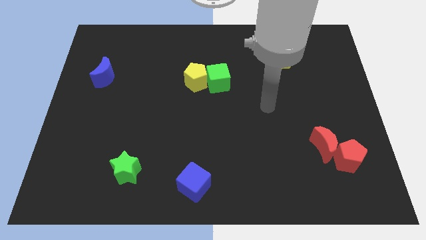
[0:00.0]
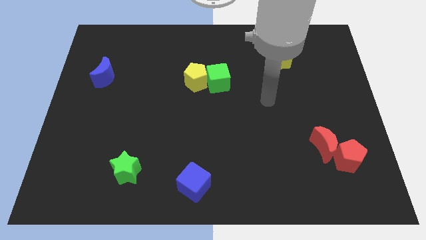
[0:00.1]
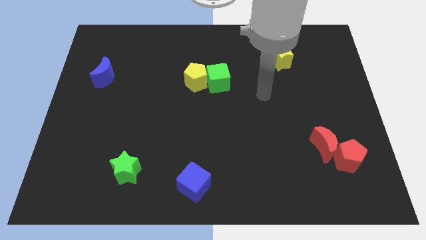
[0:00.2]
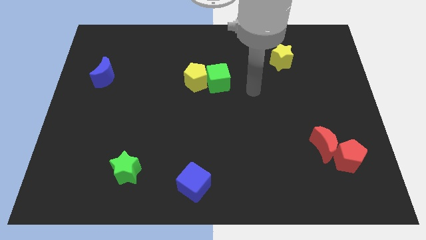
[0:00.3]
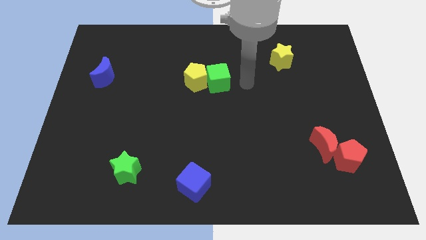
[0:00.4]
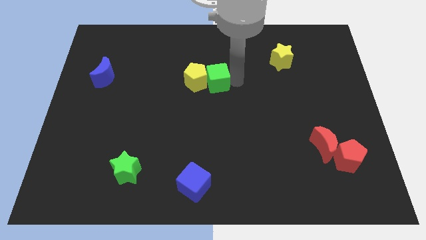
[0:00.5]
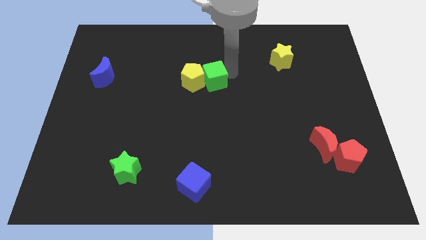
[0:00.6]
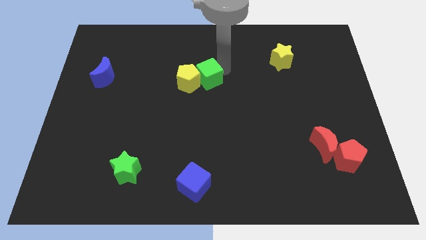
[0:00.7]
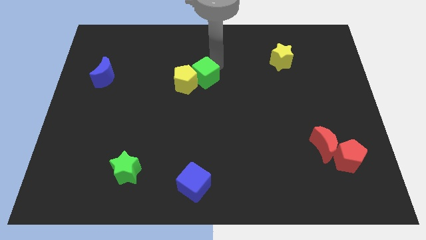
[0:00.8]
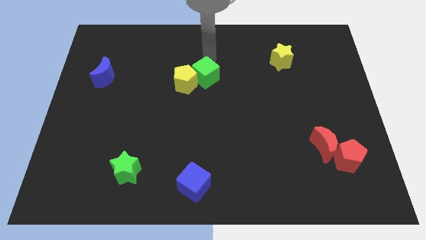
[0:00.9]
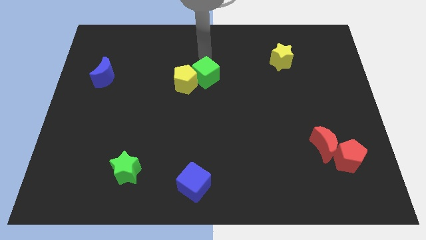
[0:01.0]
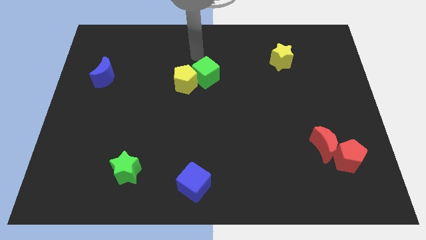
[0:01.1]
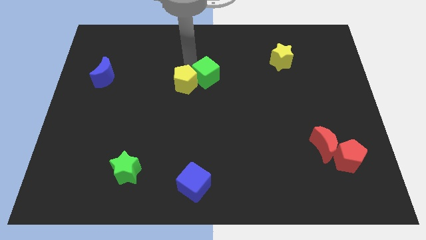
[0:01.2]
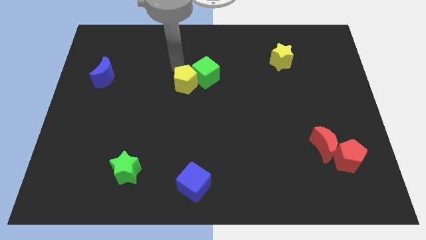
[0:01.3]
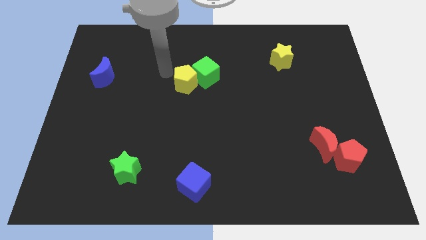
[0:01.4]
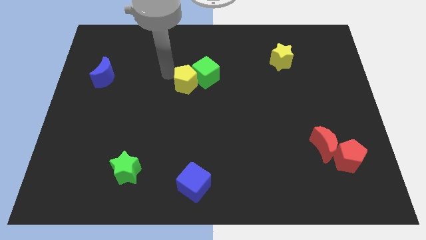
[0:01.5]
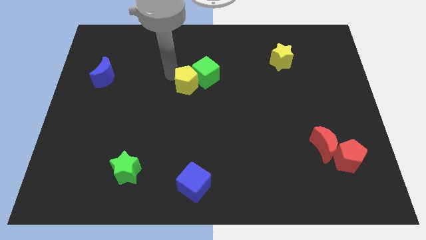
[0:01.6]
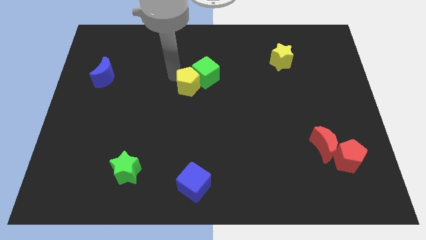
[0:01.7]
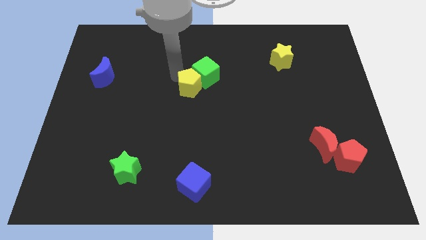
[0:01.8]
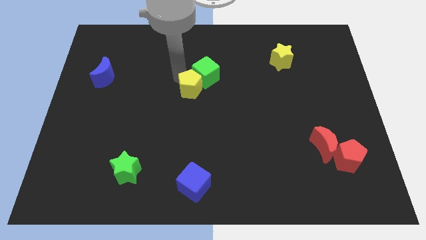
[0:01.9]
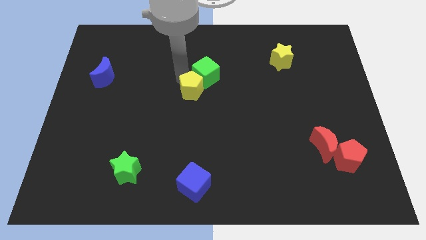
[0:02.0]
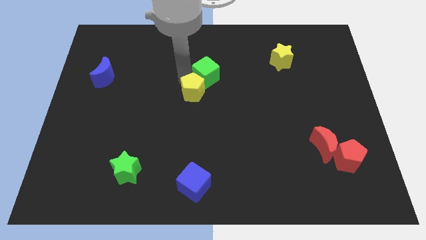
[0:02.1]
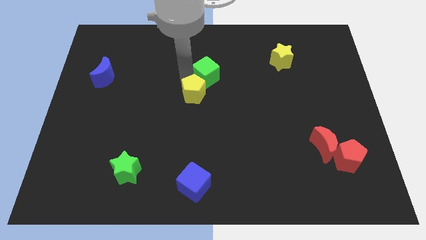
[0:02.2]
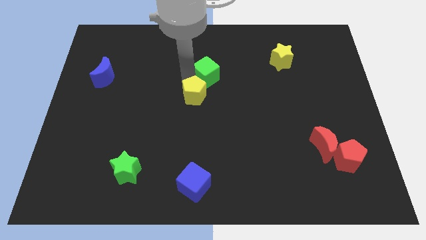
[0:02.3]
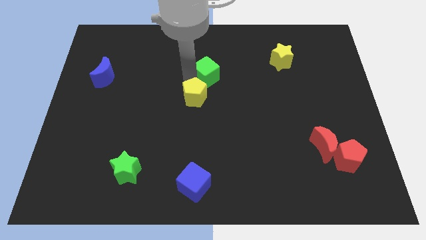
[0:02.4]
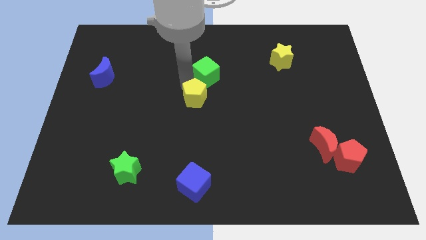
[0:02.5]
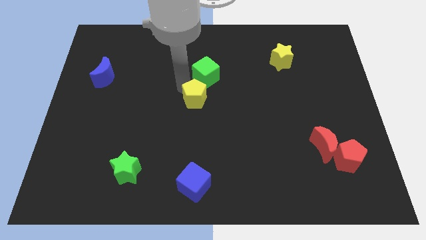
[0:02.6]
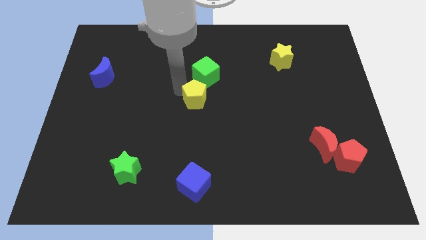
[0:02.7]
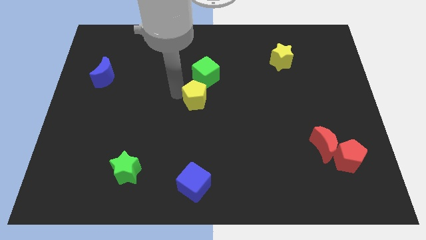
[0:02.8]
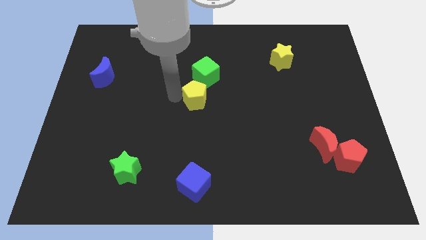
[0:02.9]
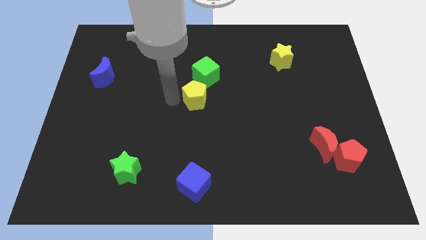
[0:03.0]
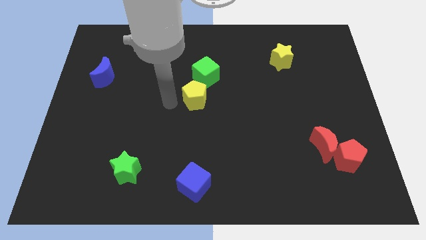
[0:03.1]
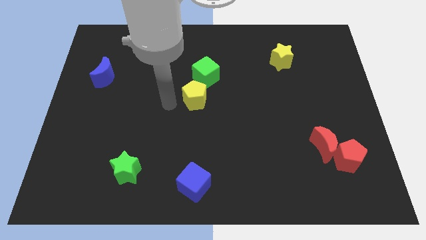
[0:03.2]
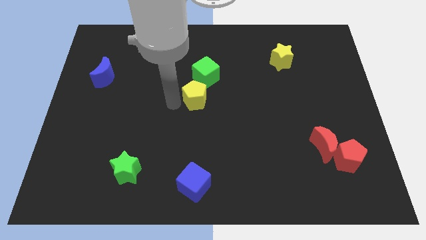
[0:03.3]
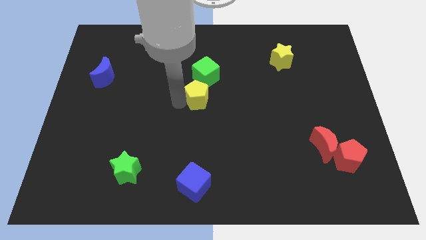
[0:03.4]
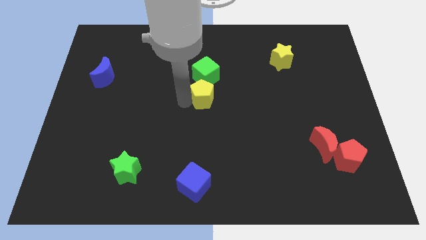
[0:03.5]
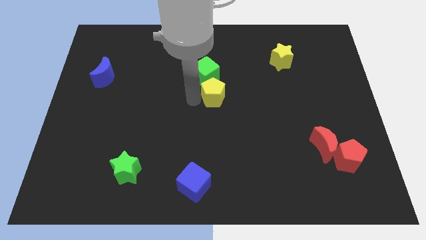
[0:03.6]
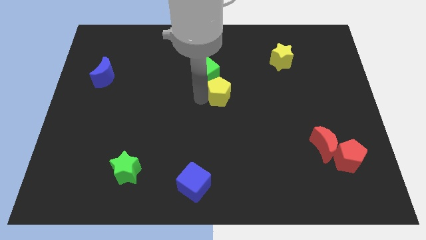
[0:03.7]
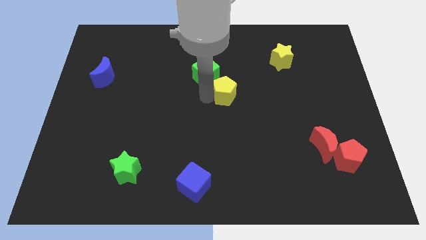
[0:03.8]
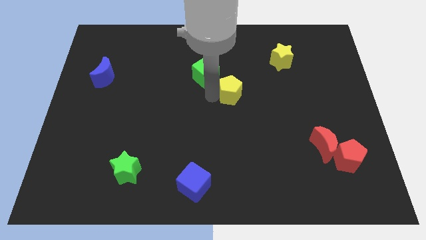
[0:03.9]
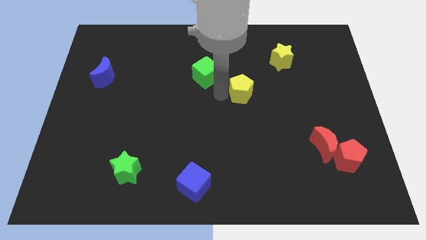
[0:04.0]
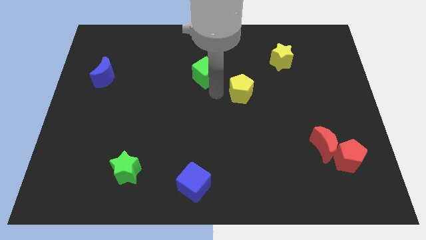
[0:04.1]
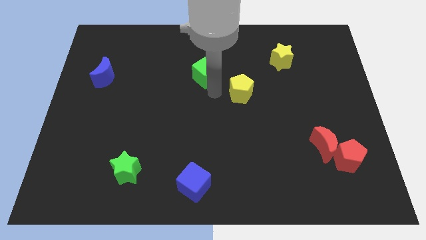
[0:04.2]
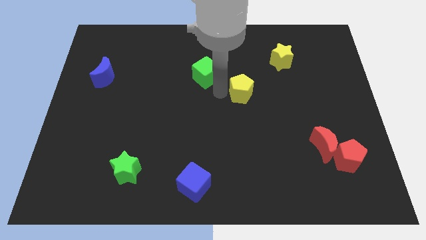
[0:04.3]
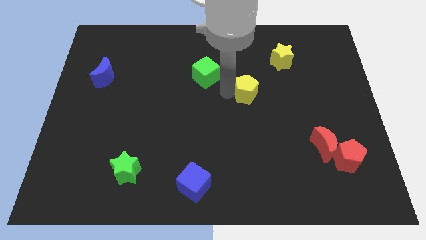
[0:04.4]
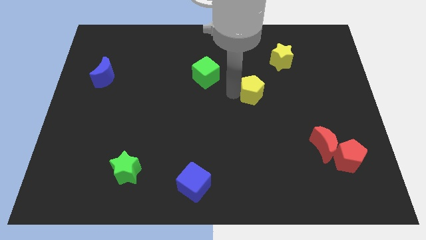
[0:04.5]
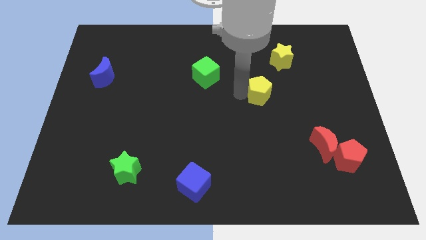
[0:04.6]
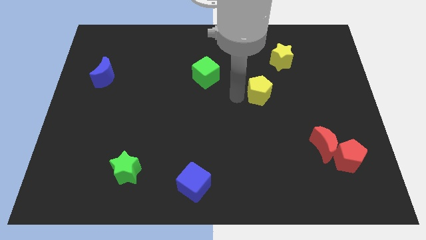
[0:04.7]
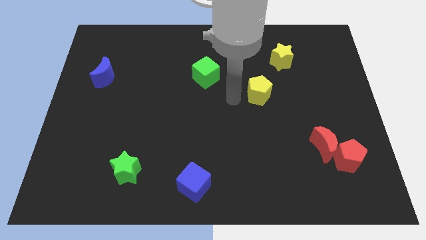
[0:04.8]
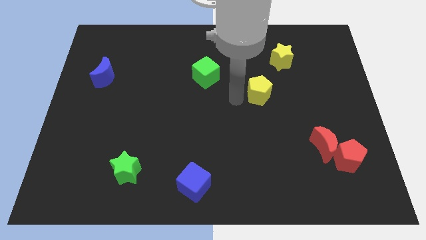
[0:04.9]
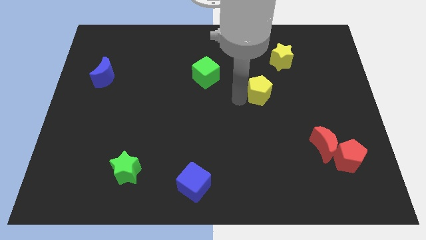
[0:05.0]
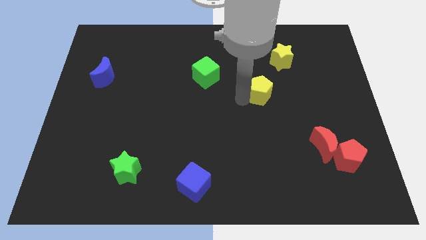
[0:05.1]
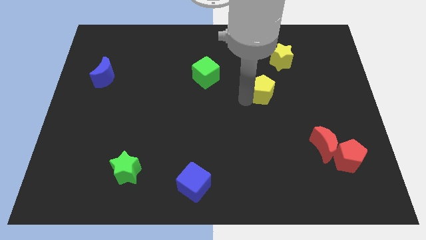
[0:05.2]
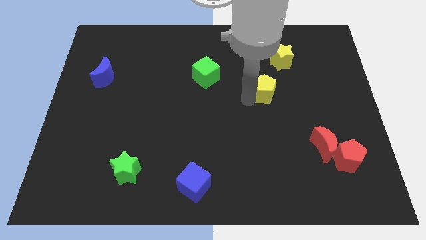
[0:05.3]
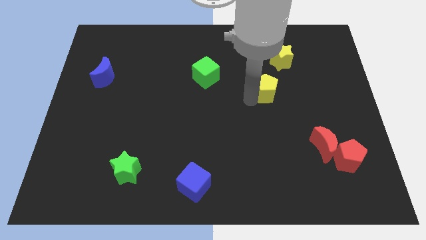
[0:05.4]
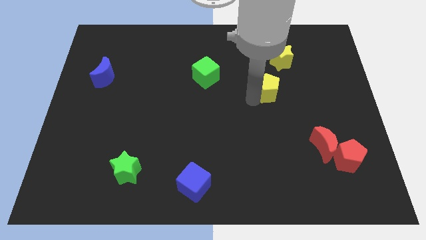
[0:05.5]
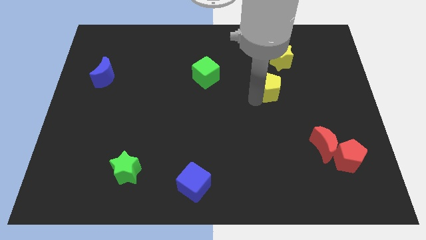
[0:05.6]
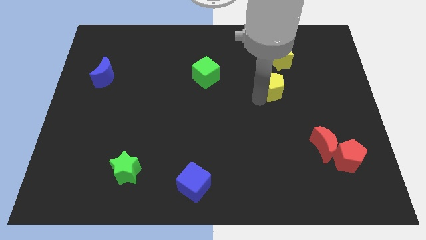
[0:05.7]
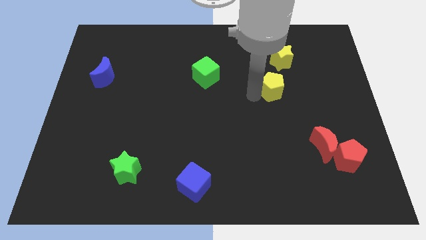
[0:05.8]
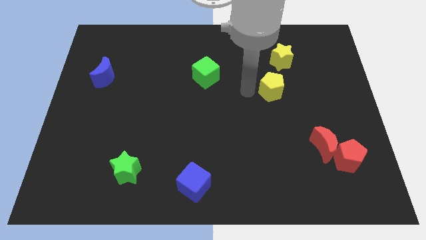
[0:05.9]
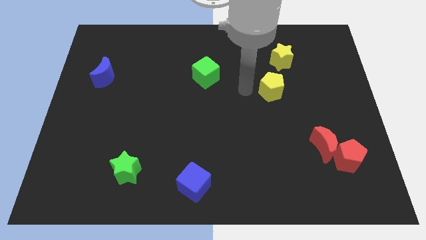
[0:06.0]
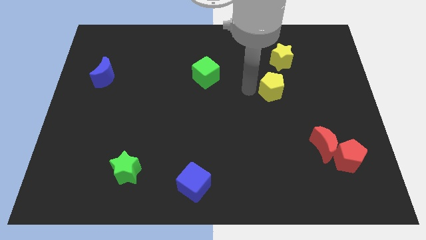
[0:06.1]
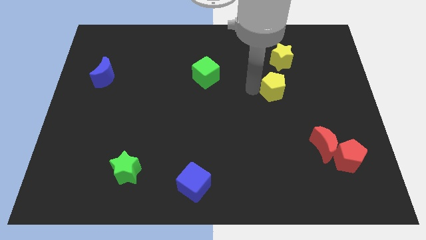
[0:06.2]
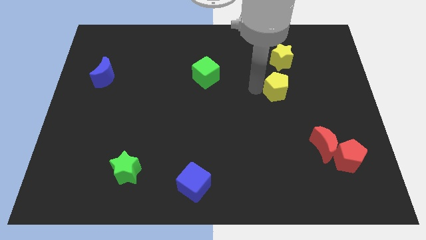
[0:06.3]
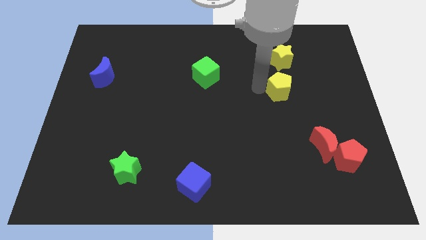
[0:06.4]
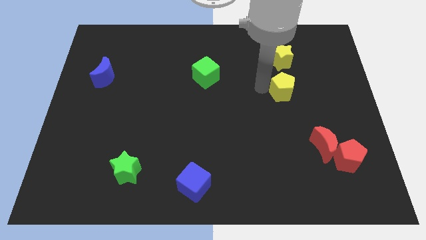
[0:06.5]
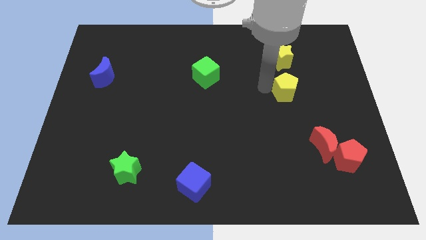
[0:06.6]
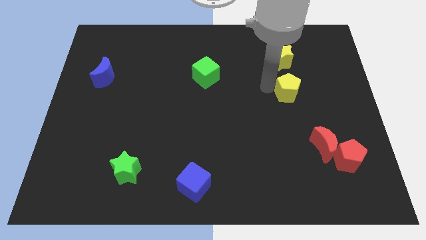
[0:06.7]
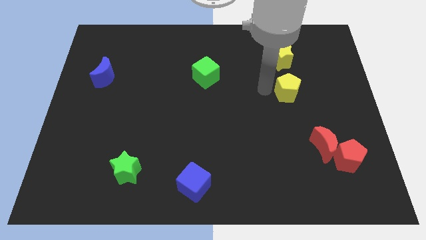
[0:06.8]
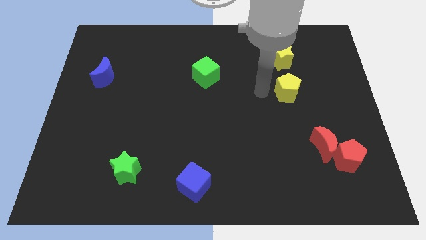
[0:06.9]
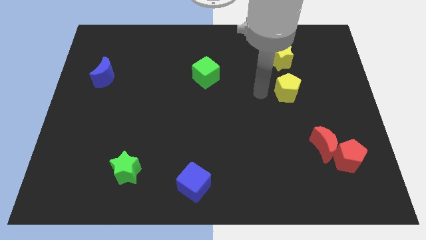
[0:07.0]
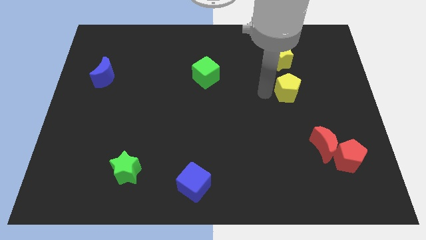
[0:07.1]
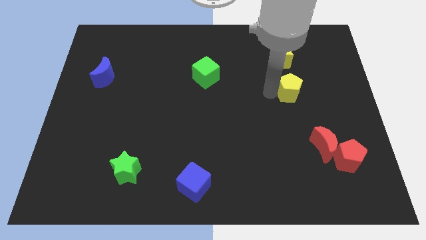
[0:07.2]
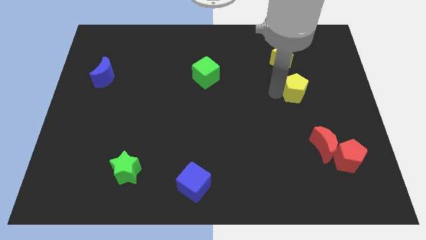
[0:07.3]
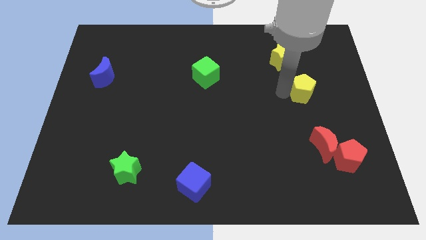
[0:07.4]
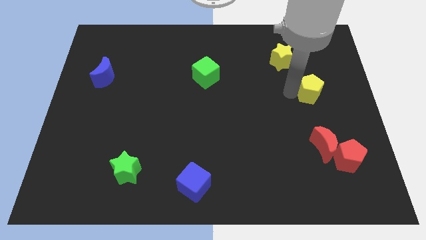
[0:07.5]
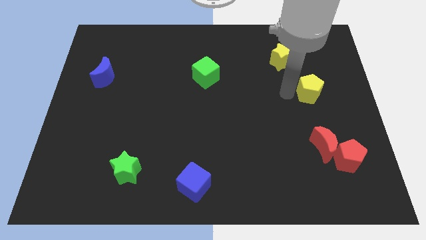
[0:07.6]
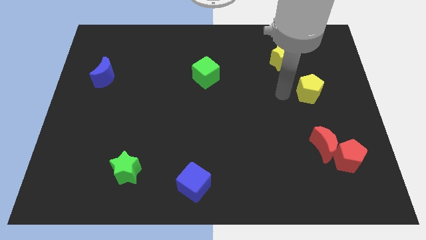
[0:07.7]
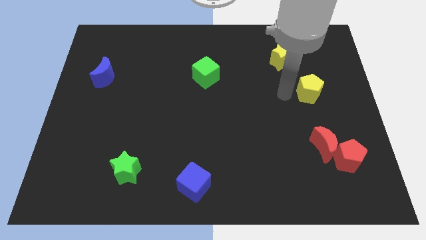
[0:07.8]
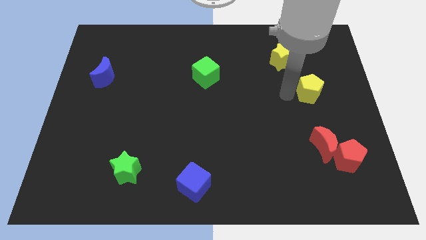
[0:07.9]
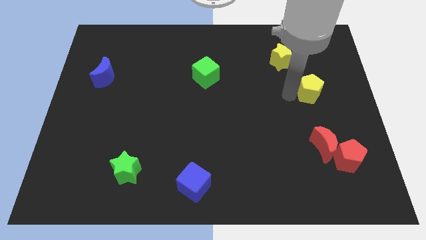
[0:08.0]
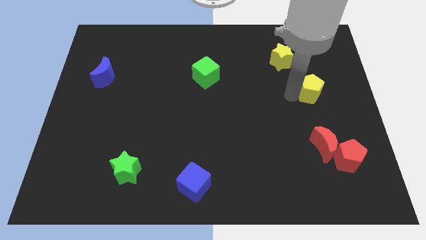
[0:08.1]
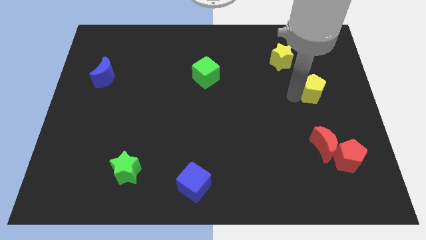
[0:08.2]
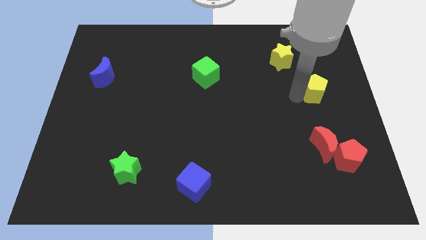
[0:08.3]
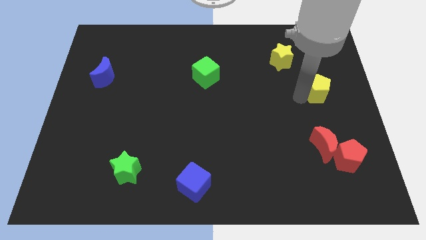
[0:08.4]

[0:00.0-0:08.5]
move the yellow pentagon to the right side
